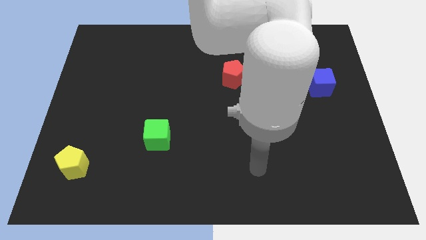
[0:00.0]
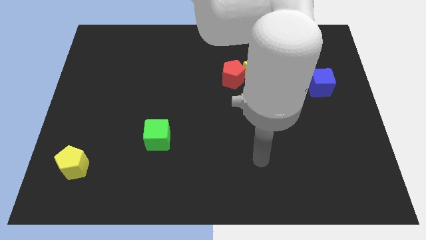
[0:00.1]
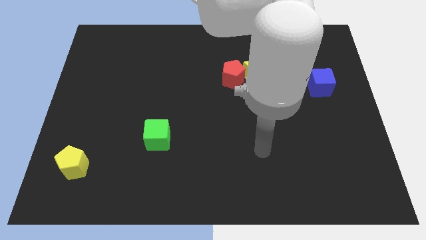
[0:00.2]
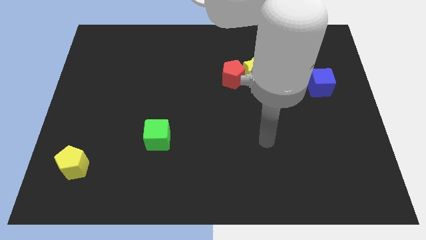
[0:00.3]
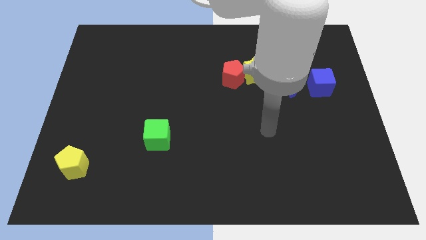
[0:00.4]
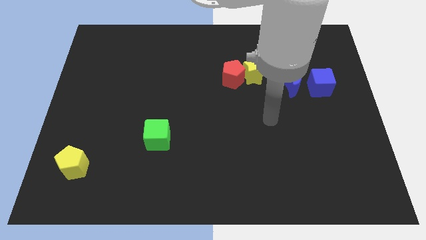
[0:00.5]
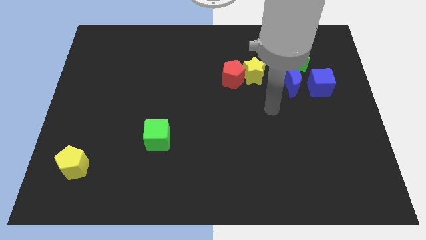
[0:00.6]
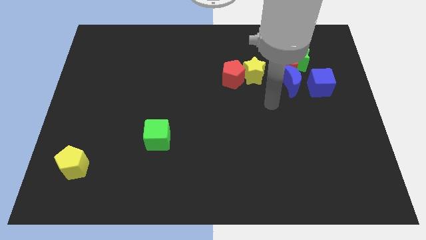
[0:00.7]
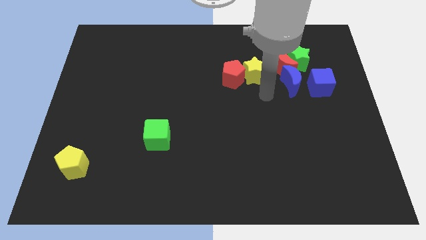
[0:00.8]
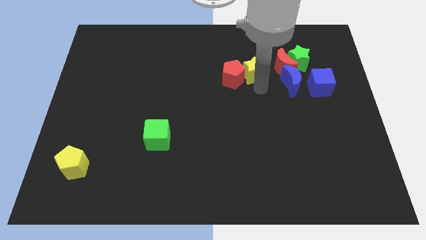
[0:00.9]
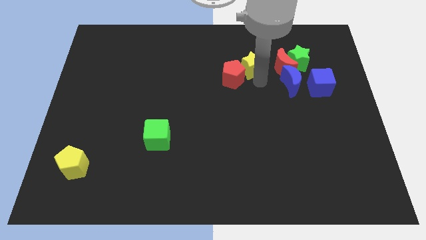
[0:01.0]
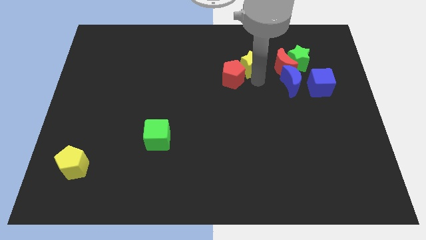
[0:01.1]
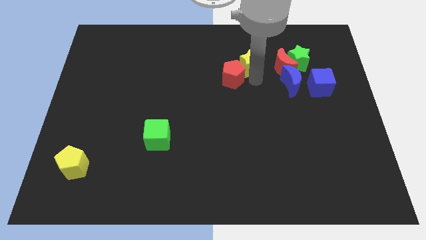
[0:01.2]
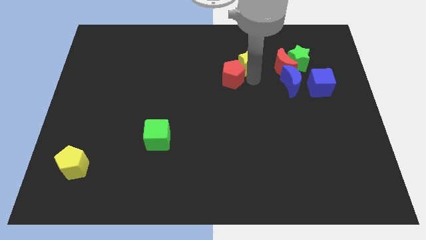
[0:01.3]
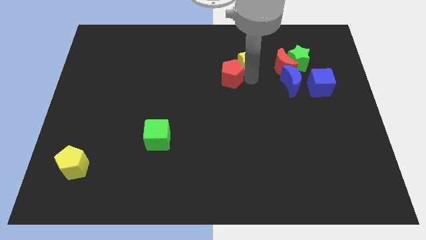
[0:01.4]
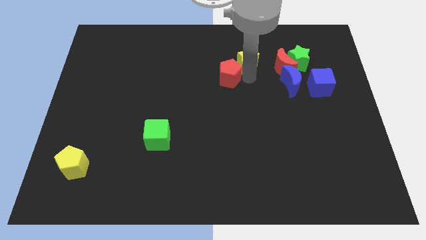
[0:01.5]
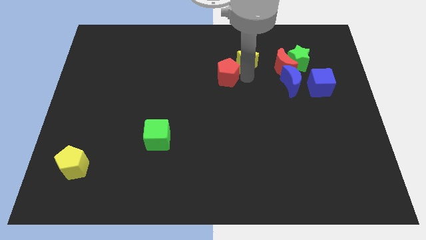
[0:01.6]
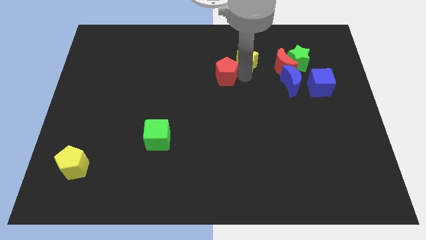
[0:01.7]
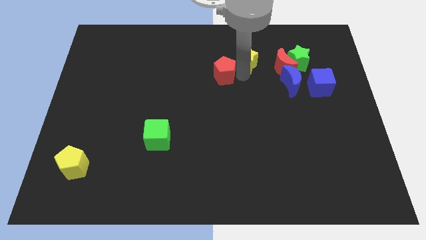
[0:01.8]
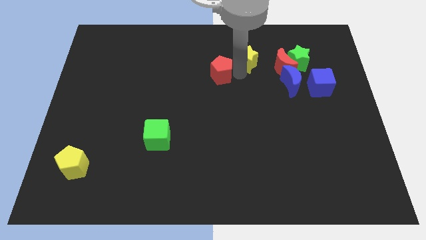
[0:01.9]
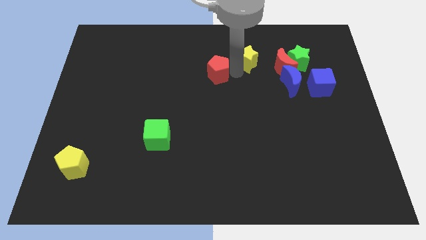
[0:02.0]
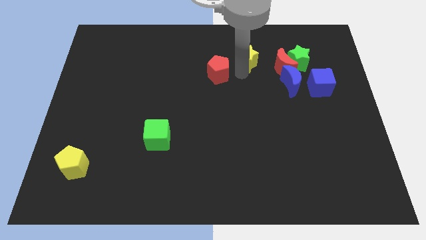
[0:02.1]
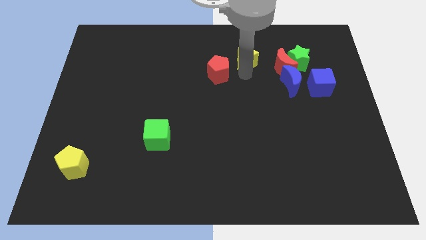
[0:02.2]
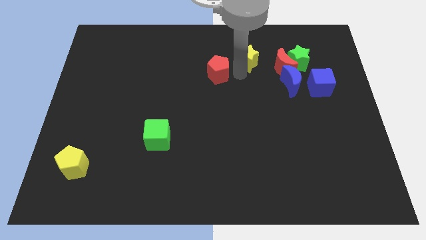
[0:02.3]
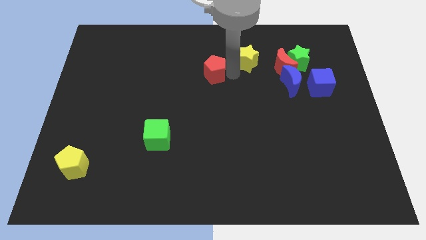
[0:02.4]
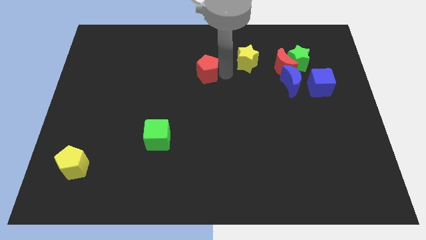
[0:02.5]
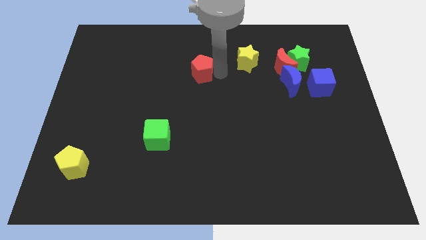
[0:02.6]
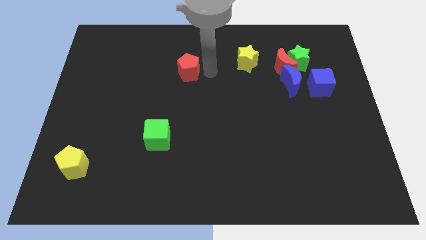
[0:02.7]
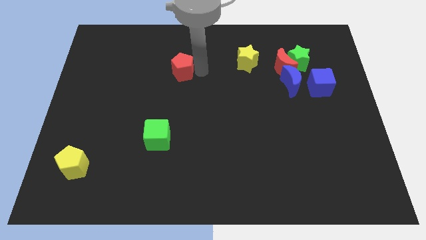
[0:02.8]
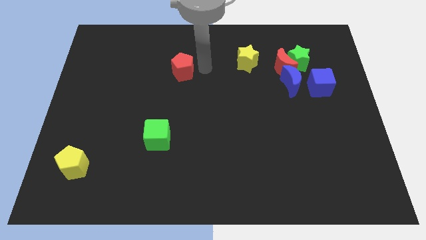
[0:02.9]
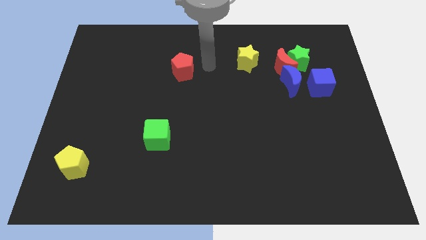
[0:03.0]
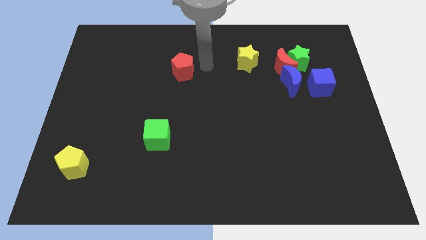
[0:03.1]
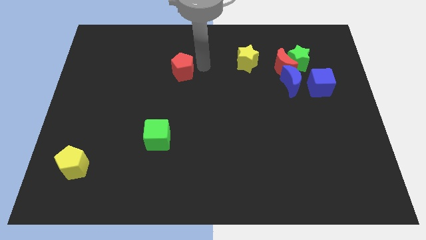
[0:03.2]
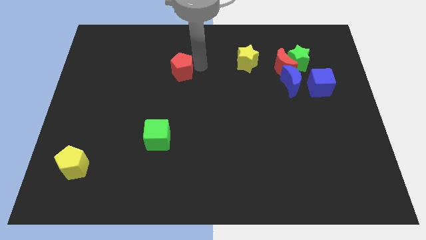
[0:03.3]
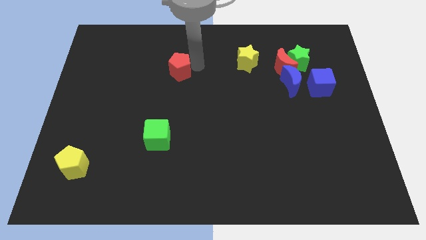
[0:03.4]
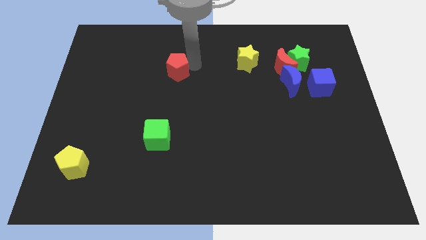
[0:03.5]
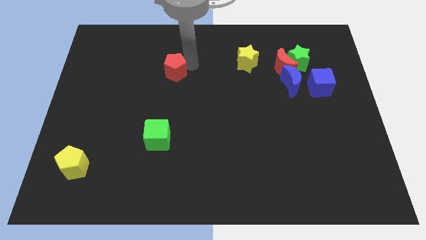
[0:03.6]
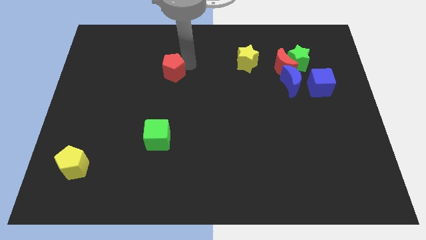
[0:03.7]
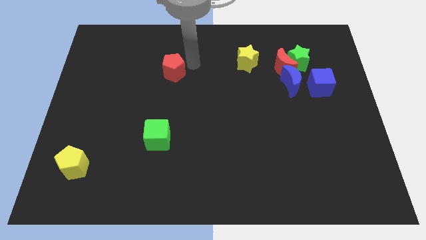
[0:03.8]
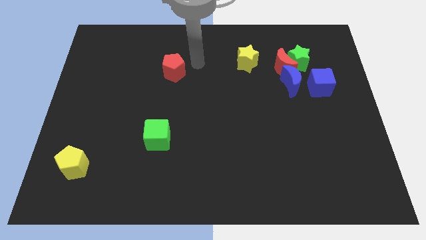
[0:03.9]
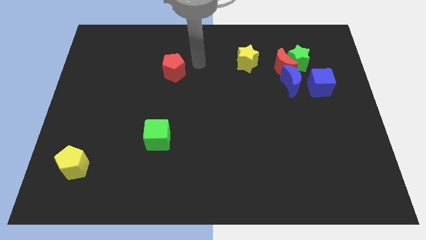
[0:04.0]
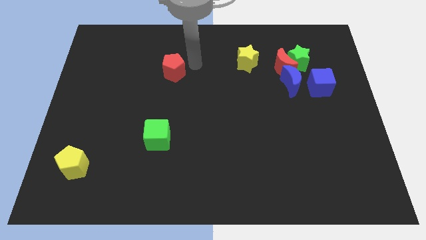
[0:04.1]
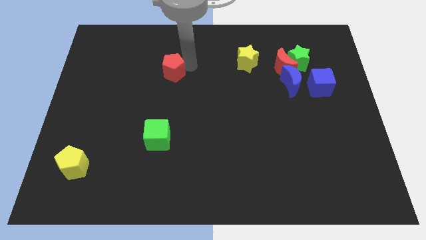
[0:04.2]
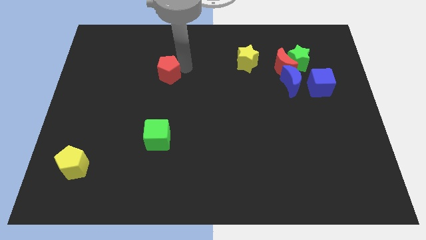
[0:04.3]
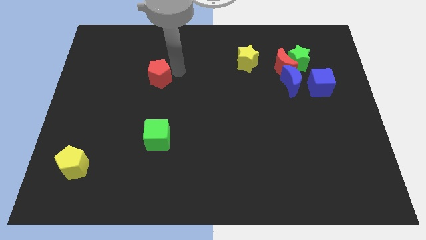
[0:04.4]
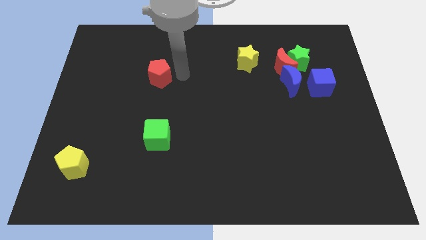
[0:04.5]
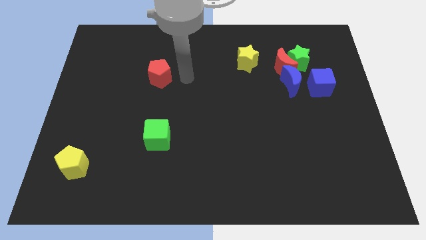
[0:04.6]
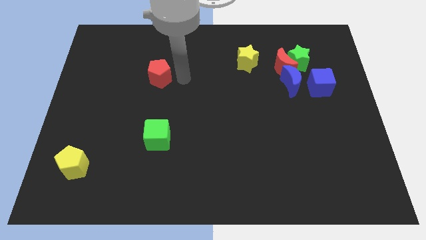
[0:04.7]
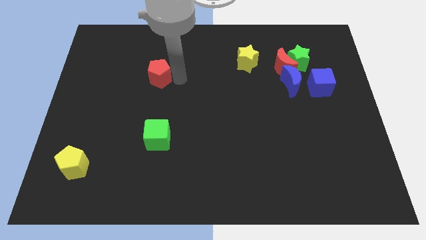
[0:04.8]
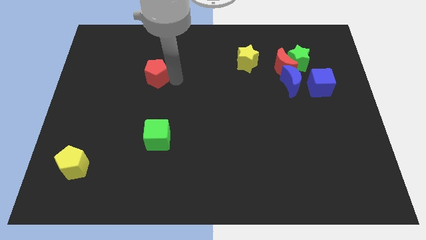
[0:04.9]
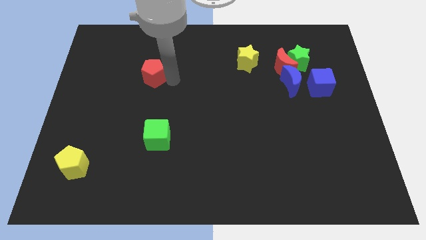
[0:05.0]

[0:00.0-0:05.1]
push the red pentagon left

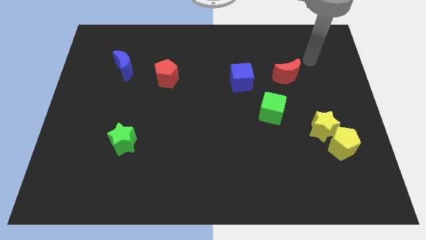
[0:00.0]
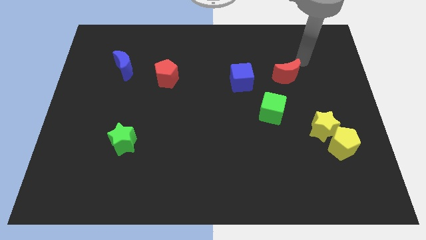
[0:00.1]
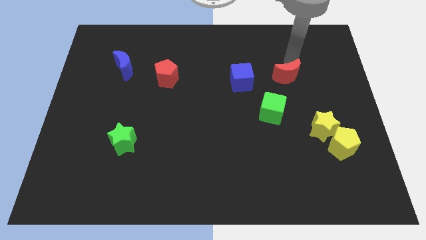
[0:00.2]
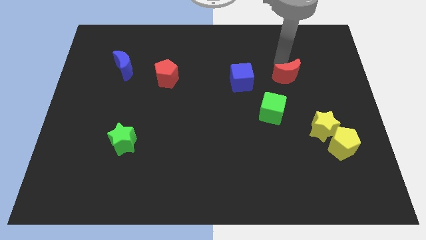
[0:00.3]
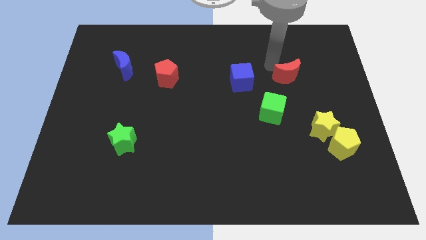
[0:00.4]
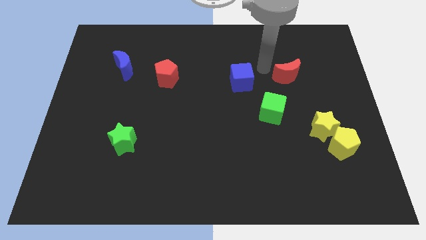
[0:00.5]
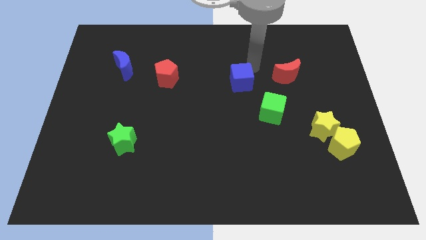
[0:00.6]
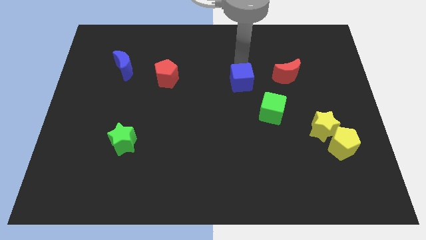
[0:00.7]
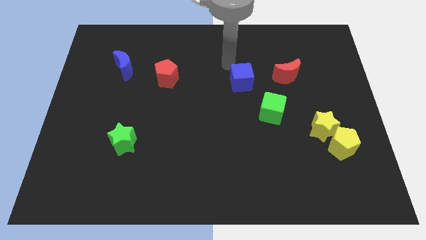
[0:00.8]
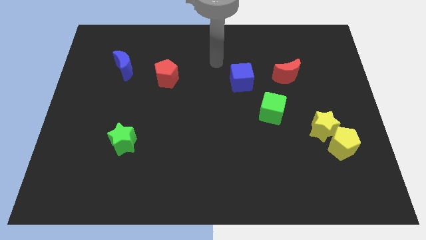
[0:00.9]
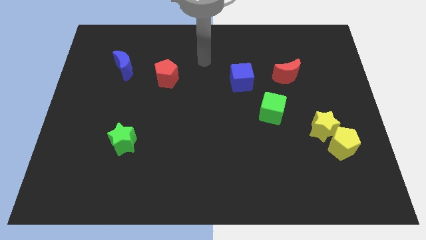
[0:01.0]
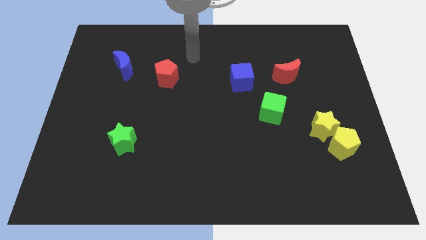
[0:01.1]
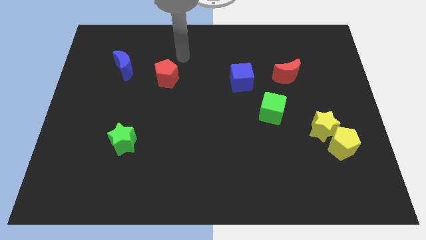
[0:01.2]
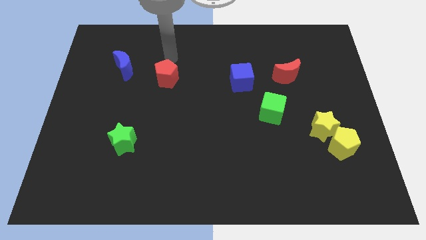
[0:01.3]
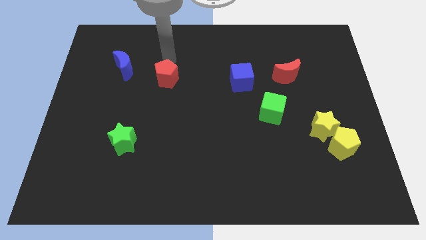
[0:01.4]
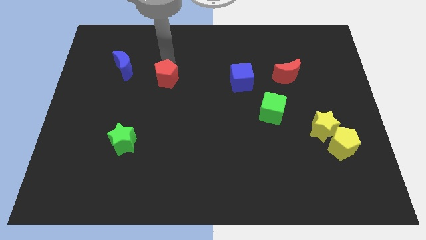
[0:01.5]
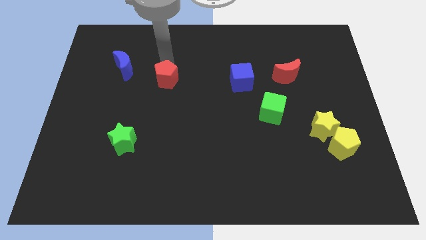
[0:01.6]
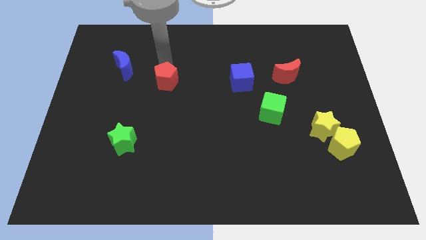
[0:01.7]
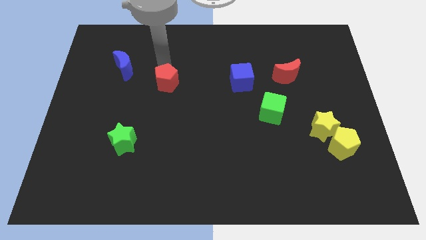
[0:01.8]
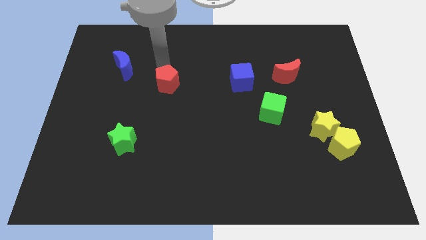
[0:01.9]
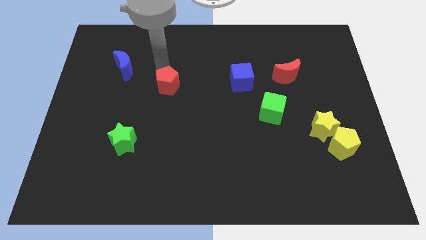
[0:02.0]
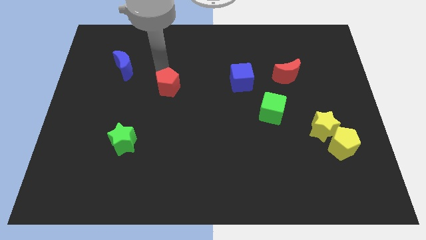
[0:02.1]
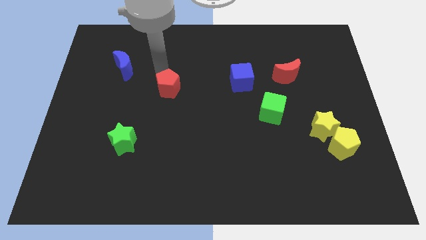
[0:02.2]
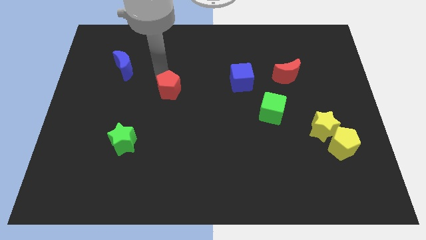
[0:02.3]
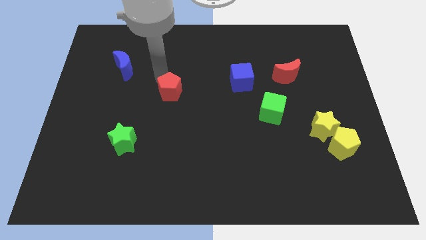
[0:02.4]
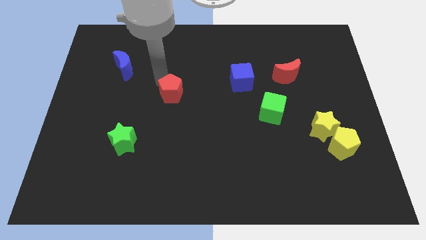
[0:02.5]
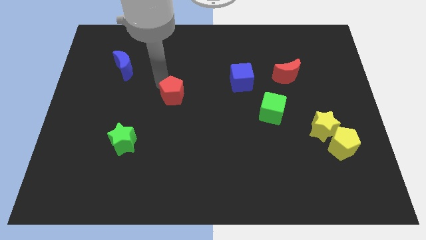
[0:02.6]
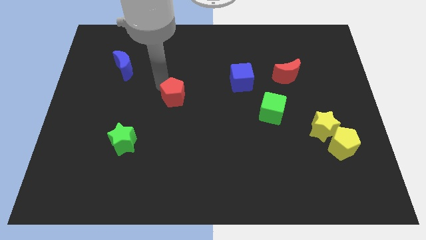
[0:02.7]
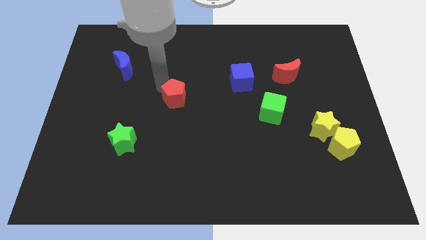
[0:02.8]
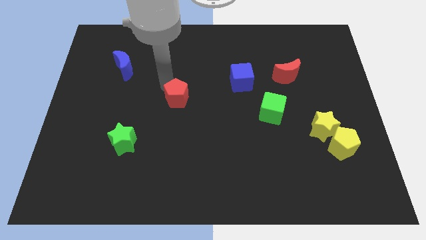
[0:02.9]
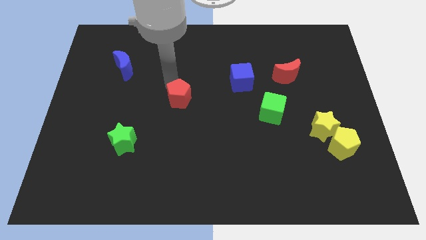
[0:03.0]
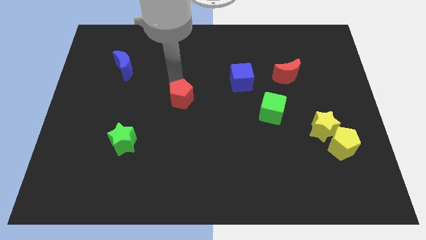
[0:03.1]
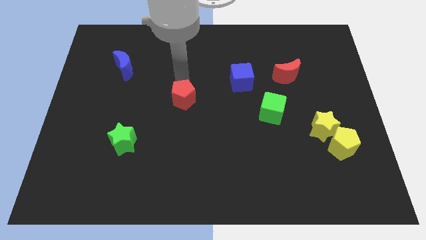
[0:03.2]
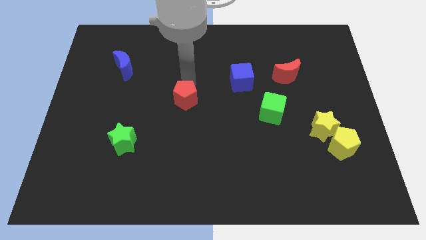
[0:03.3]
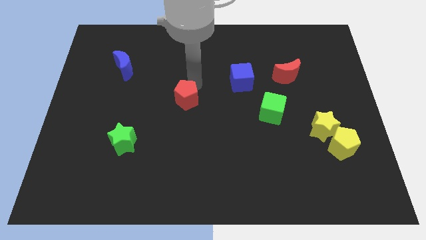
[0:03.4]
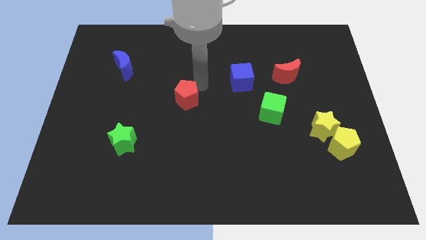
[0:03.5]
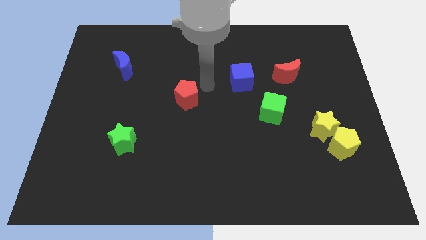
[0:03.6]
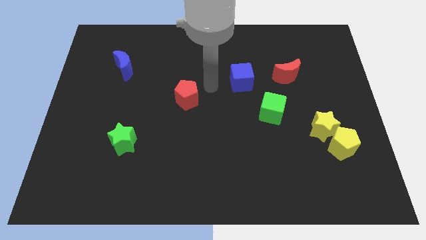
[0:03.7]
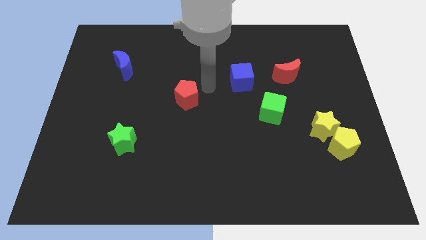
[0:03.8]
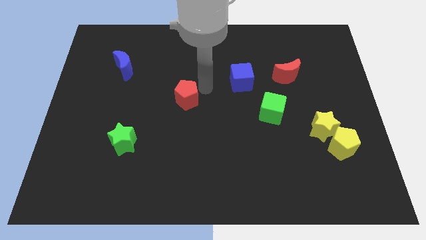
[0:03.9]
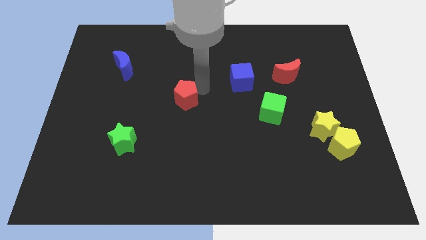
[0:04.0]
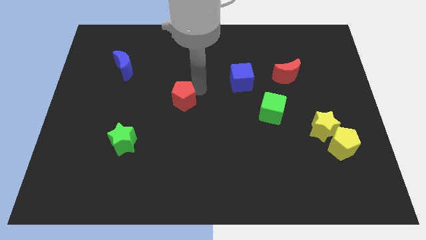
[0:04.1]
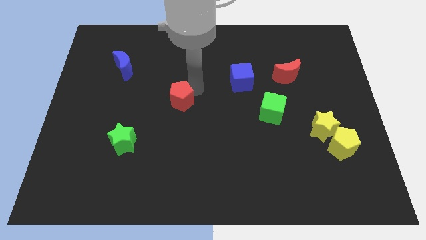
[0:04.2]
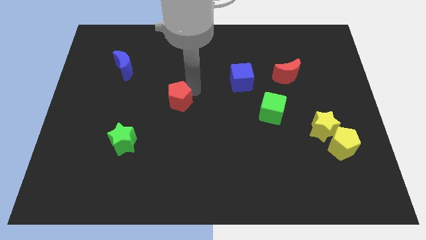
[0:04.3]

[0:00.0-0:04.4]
slide the red pentagon down slightly
